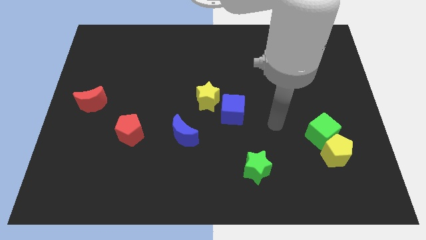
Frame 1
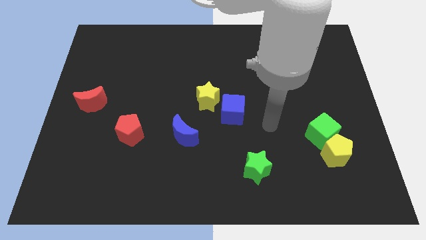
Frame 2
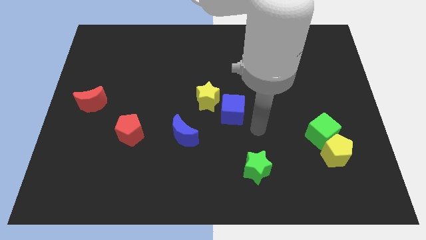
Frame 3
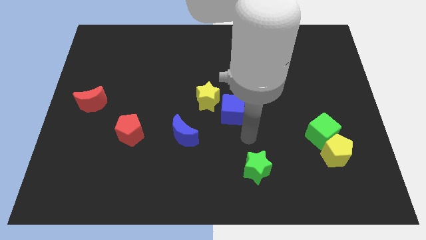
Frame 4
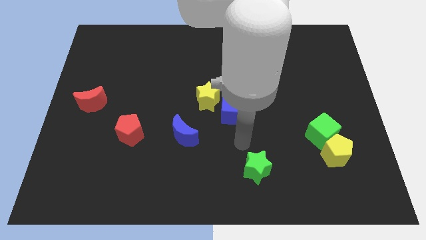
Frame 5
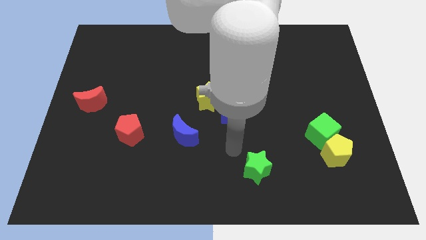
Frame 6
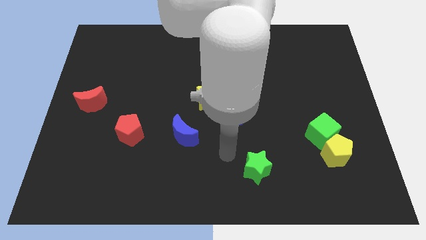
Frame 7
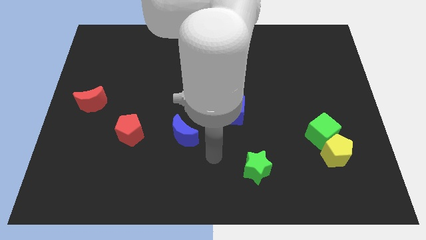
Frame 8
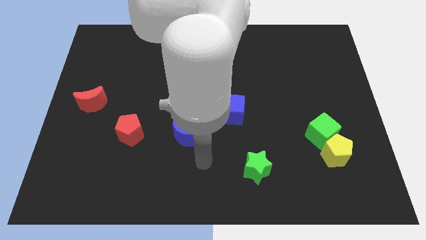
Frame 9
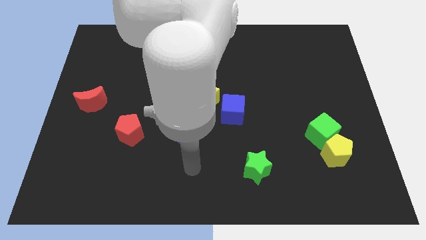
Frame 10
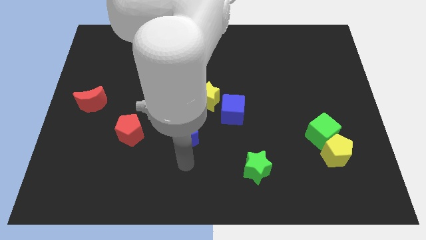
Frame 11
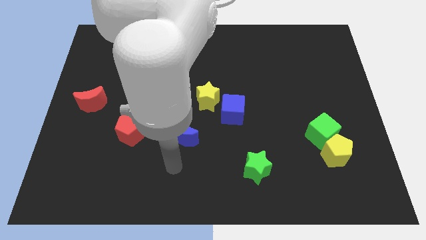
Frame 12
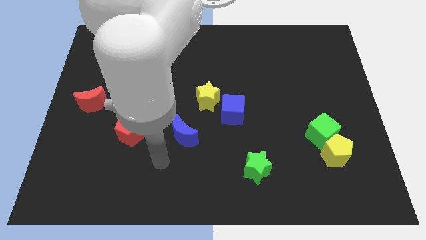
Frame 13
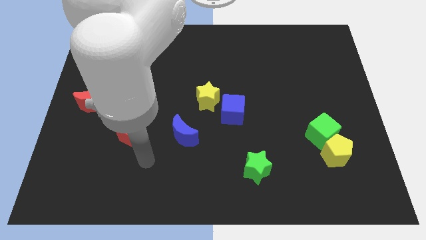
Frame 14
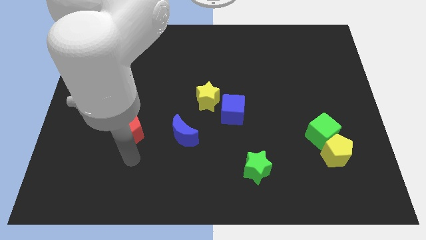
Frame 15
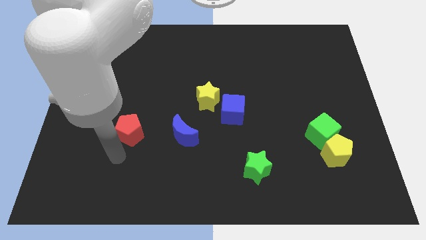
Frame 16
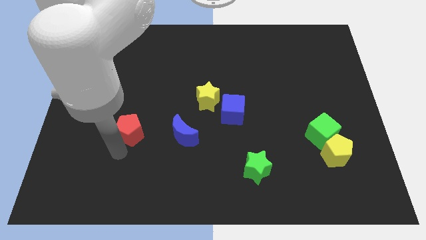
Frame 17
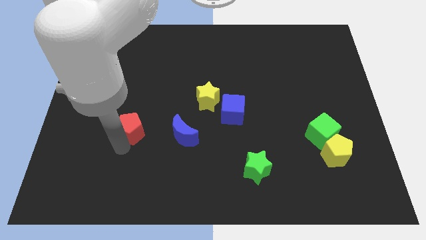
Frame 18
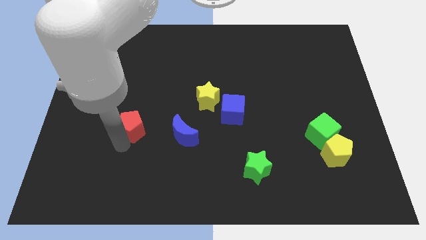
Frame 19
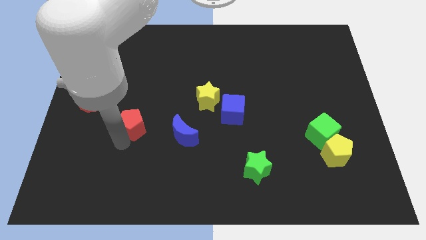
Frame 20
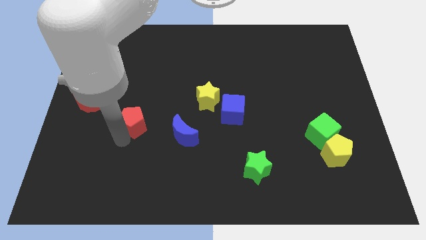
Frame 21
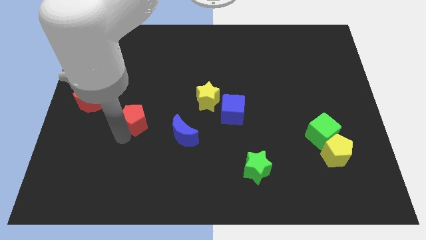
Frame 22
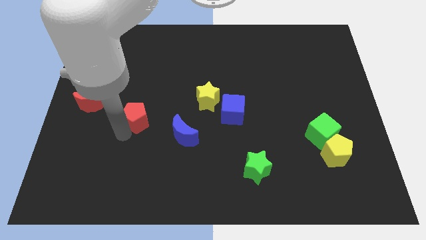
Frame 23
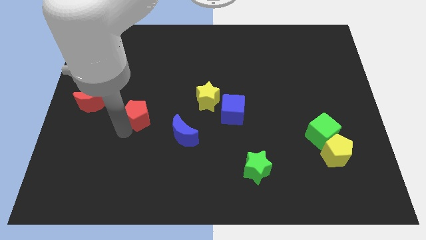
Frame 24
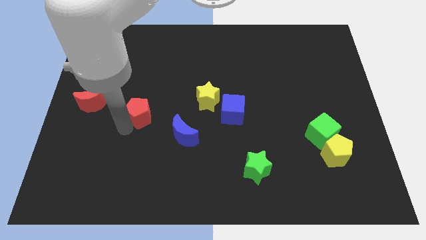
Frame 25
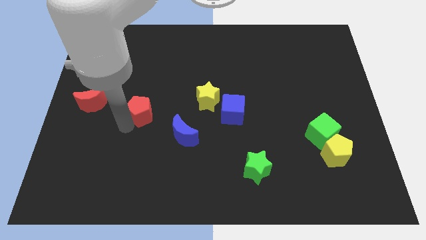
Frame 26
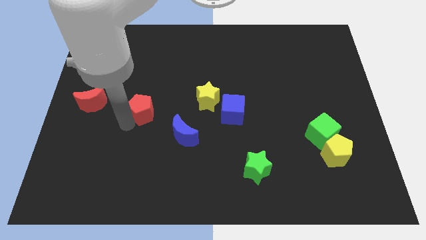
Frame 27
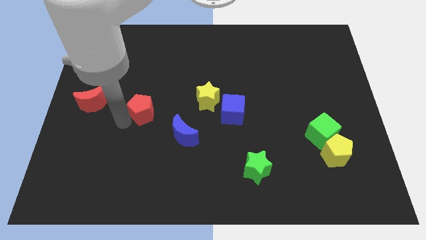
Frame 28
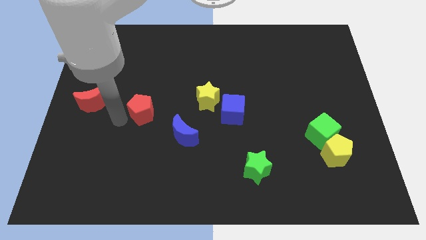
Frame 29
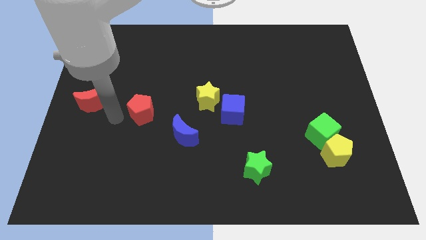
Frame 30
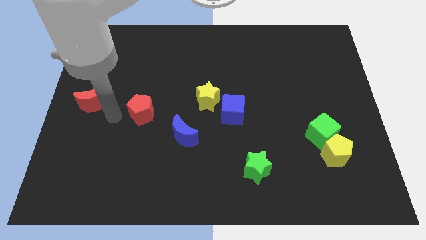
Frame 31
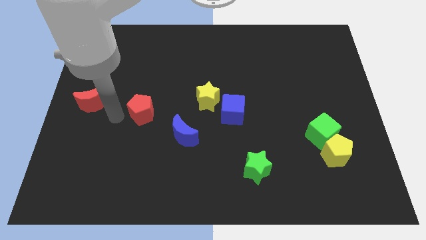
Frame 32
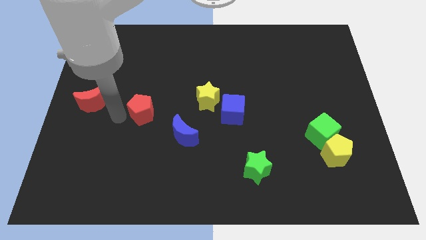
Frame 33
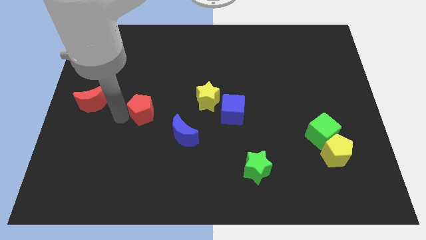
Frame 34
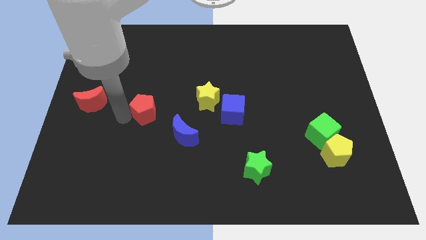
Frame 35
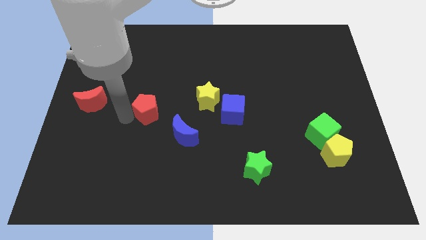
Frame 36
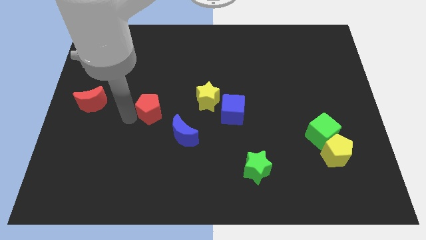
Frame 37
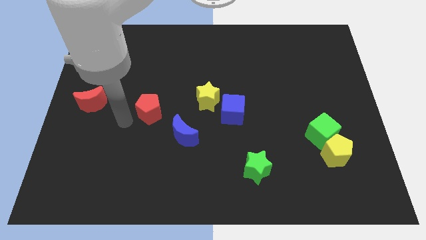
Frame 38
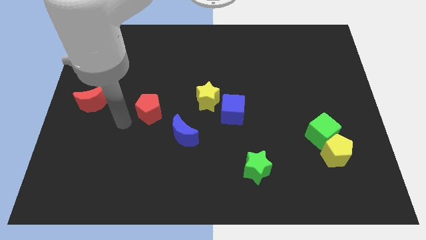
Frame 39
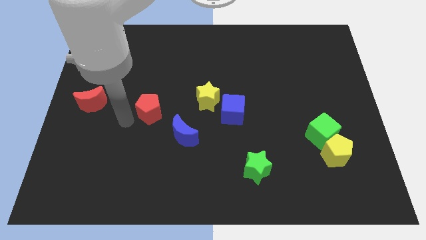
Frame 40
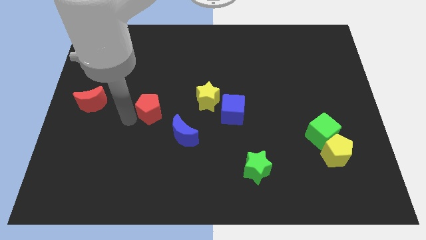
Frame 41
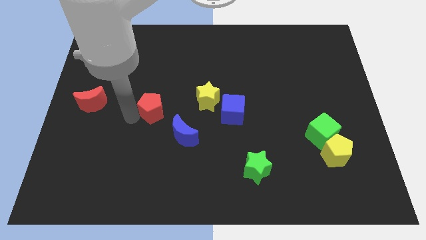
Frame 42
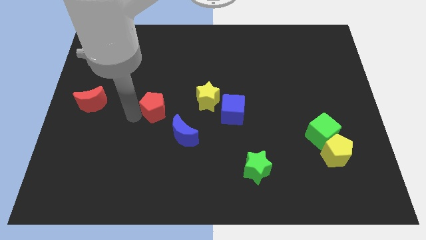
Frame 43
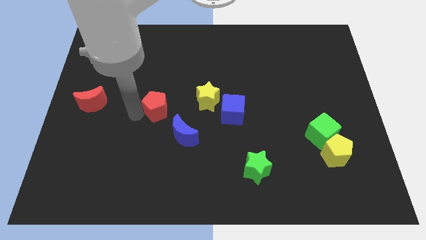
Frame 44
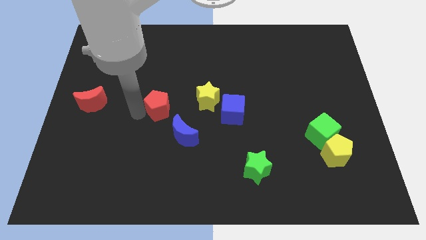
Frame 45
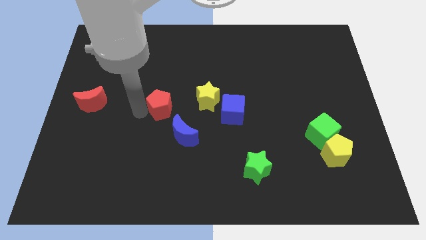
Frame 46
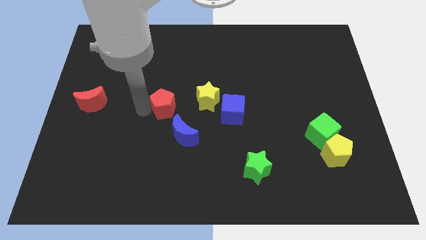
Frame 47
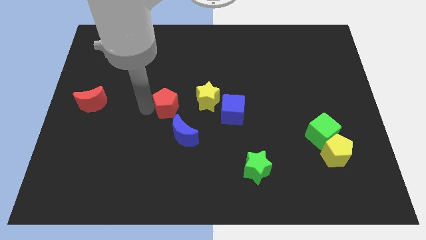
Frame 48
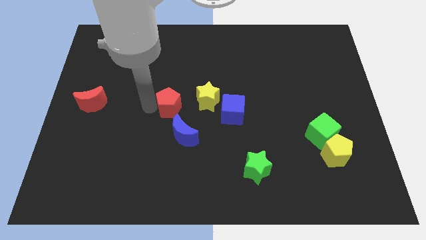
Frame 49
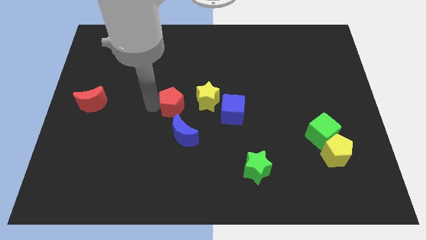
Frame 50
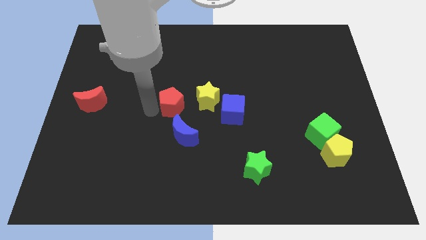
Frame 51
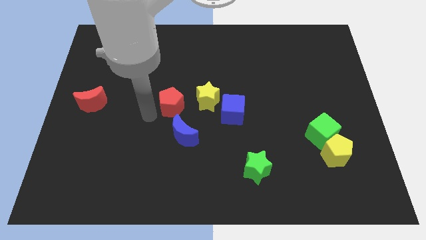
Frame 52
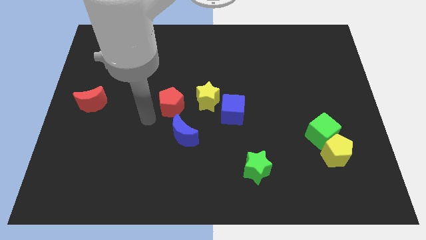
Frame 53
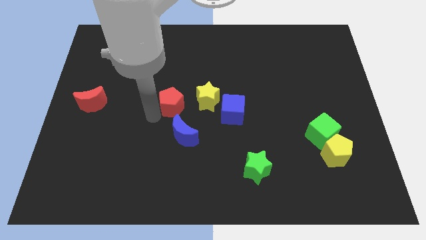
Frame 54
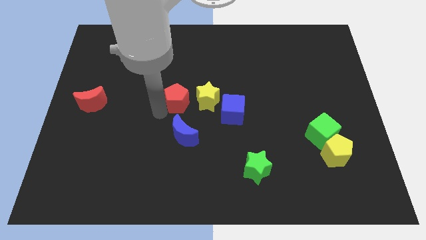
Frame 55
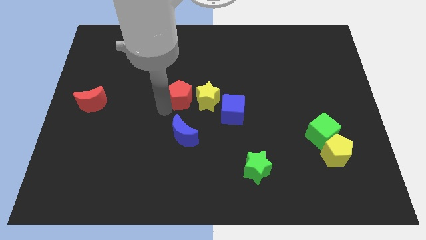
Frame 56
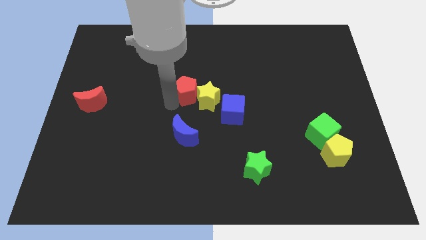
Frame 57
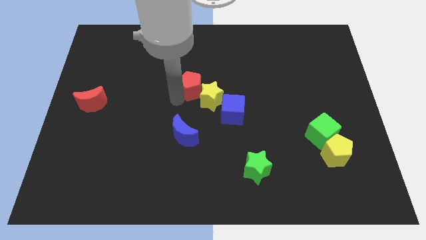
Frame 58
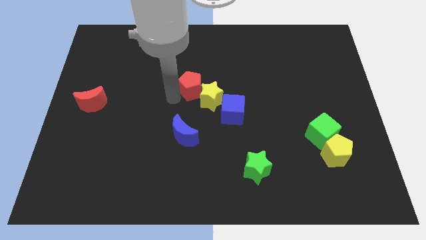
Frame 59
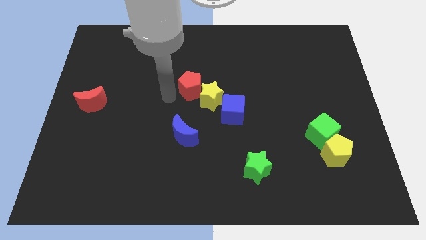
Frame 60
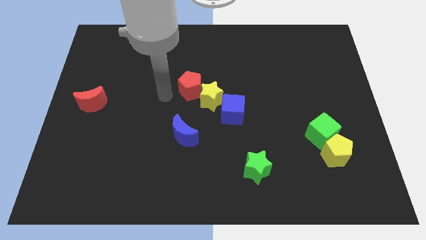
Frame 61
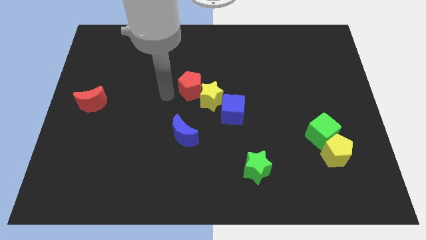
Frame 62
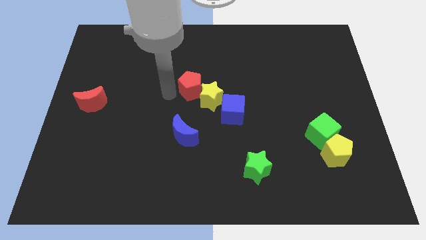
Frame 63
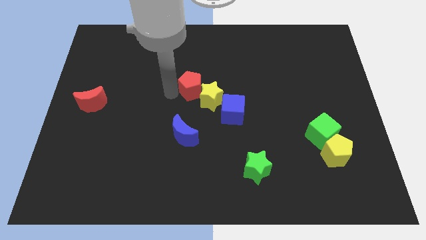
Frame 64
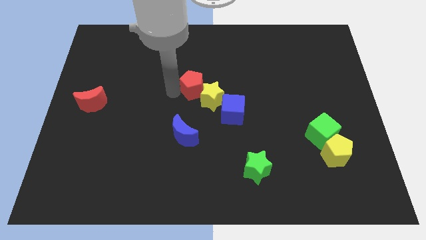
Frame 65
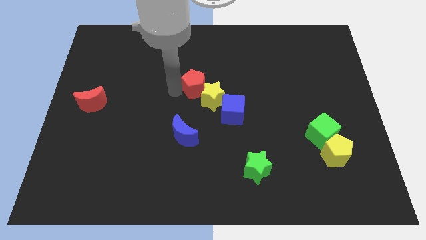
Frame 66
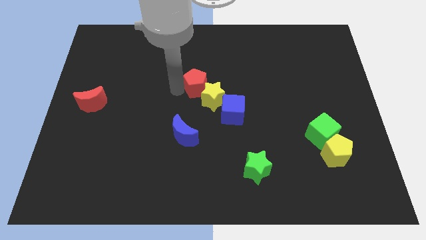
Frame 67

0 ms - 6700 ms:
move the red pentagon up and then to the right

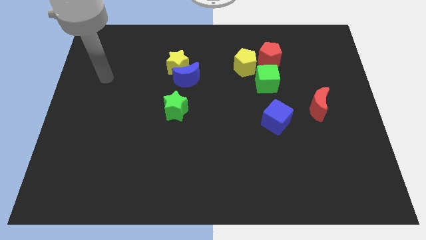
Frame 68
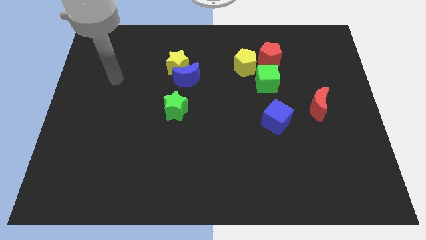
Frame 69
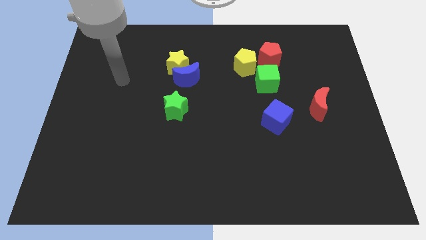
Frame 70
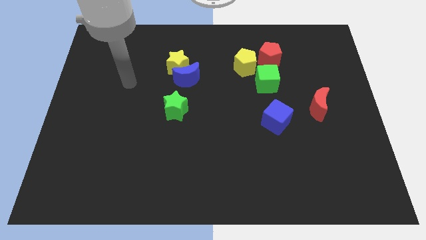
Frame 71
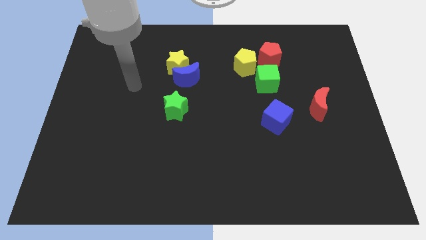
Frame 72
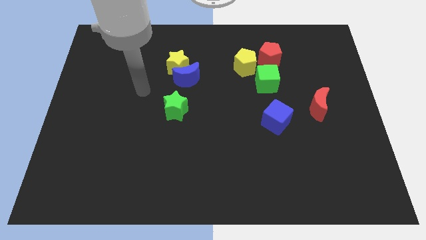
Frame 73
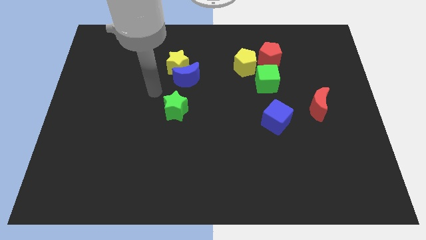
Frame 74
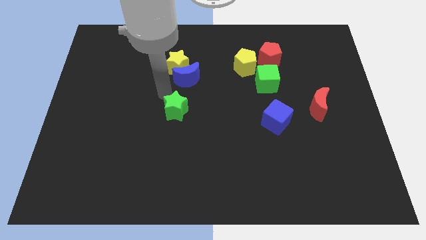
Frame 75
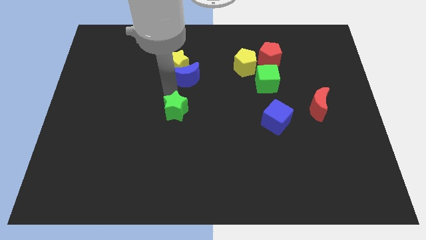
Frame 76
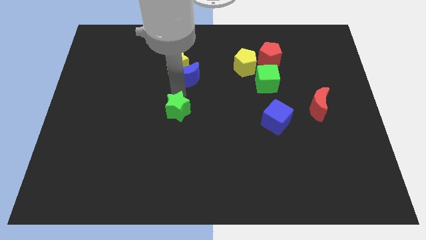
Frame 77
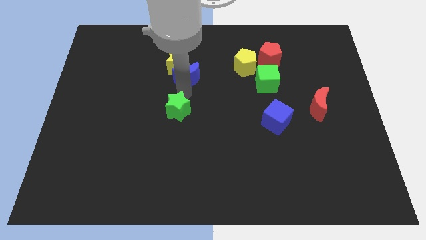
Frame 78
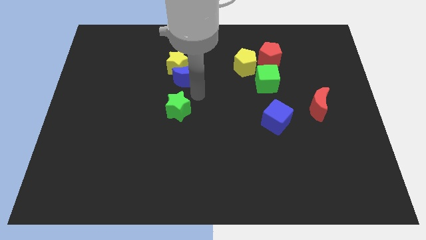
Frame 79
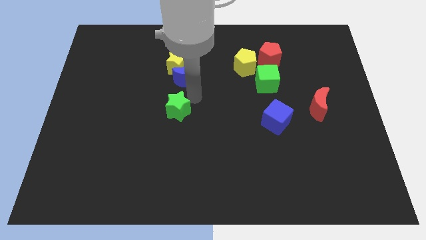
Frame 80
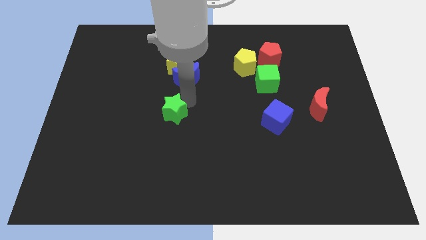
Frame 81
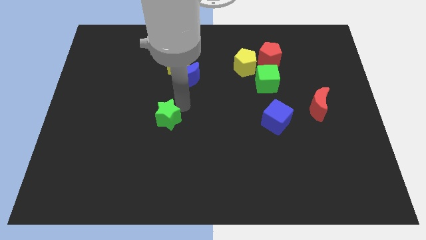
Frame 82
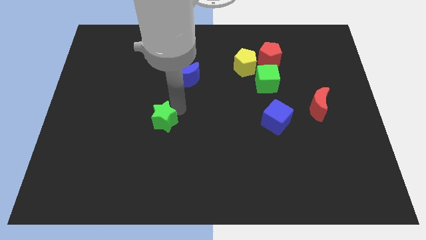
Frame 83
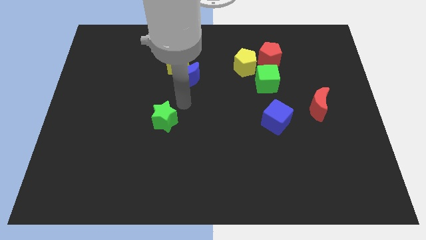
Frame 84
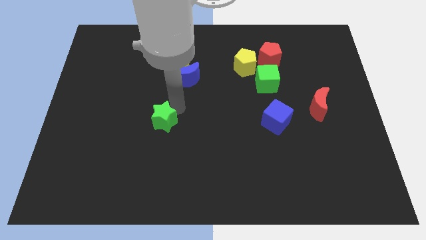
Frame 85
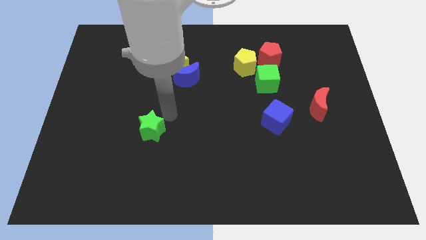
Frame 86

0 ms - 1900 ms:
slightly push the green star down and left
